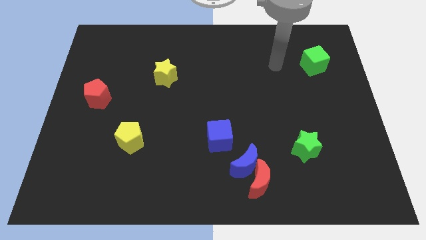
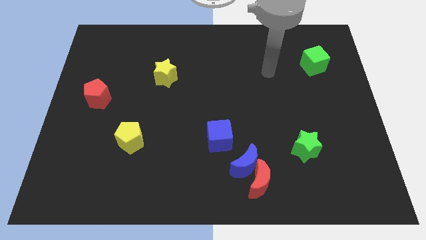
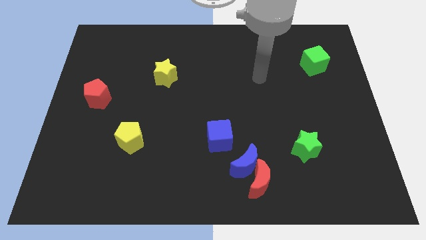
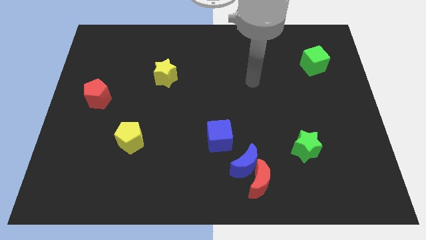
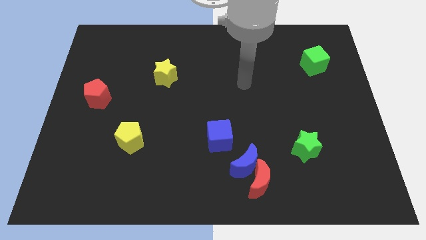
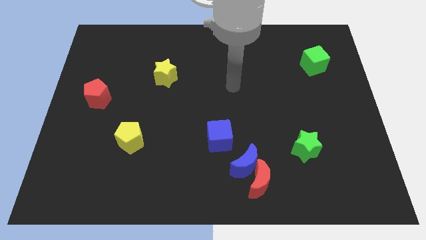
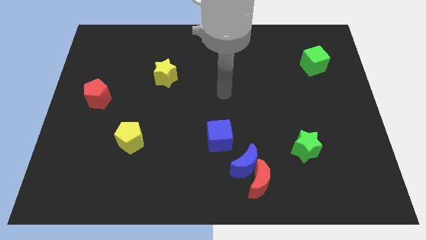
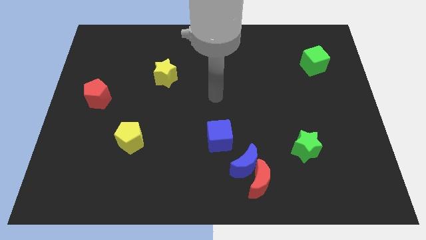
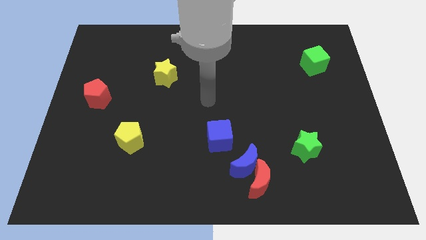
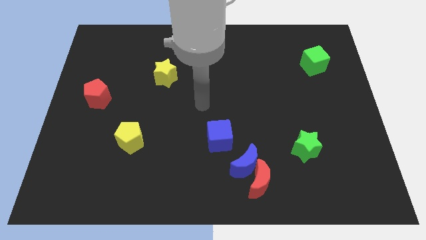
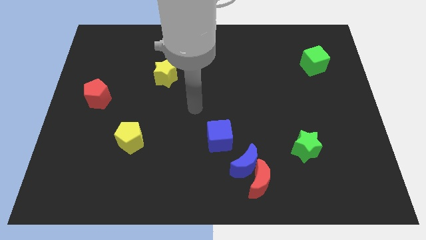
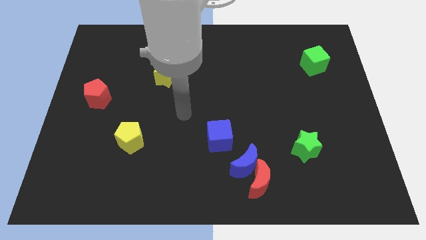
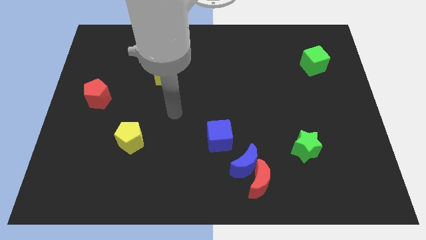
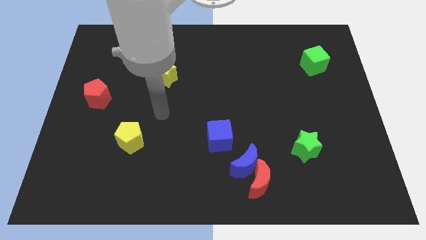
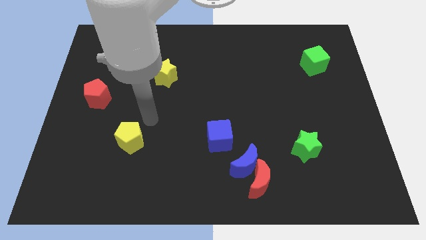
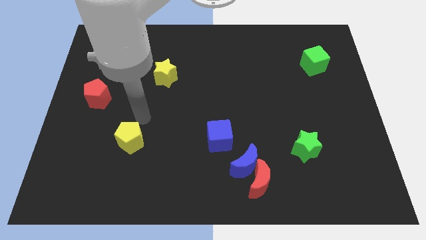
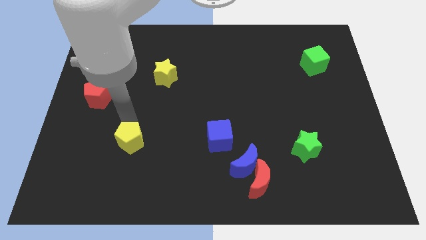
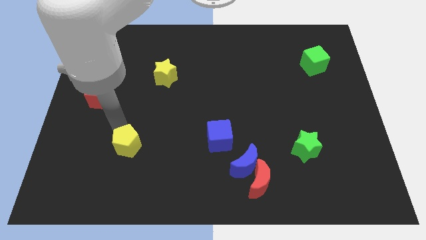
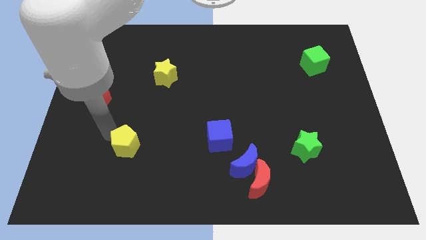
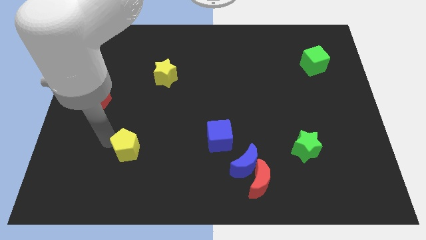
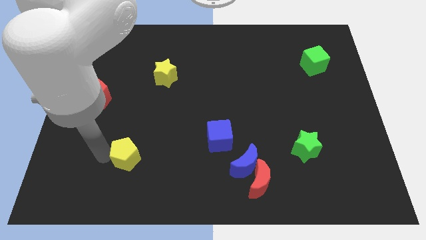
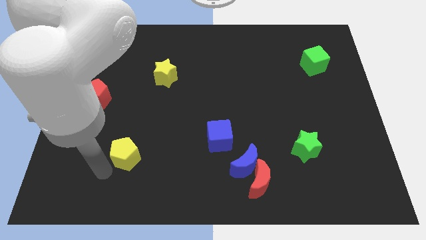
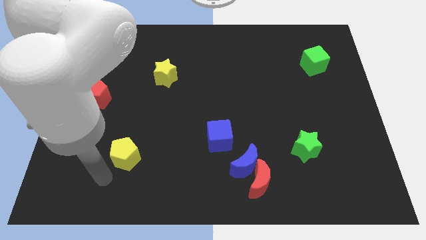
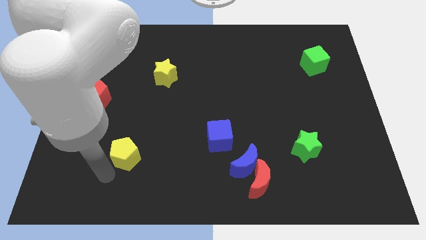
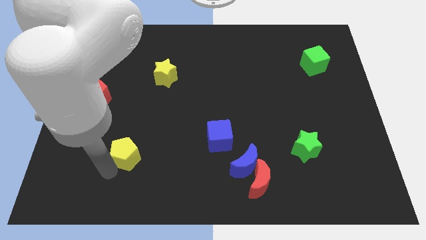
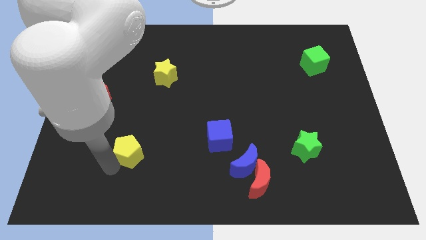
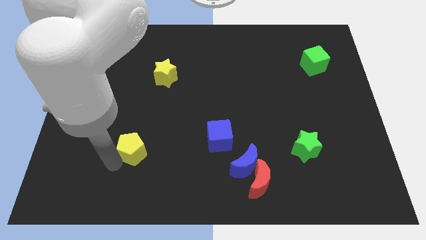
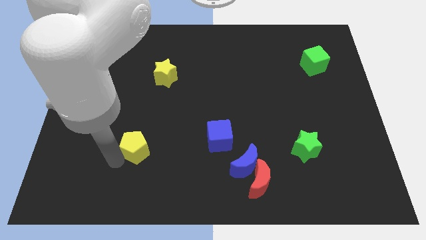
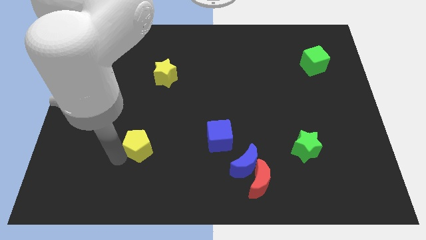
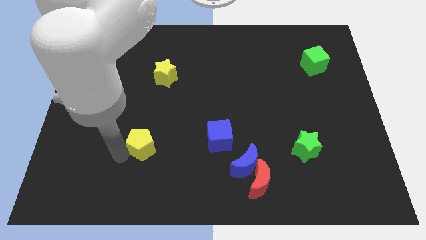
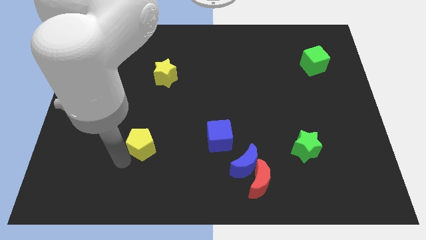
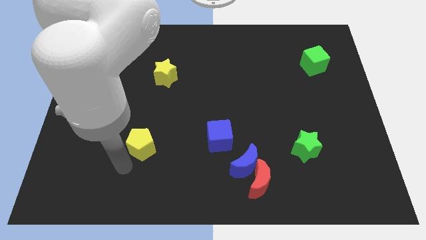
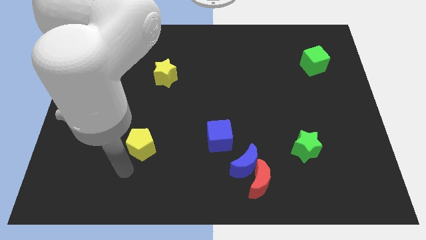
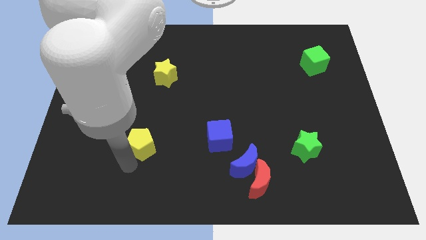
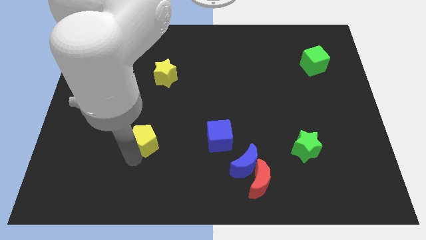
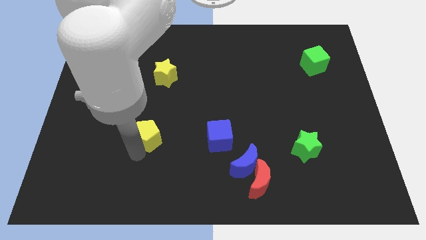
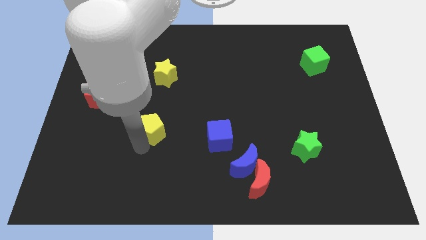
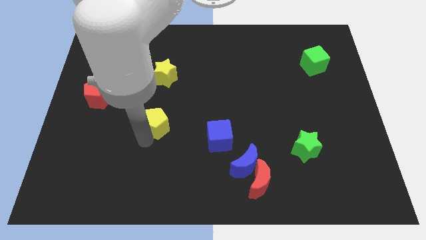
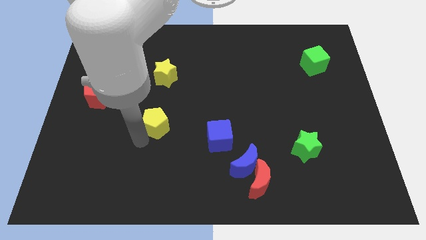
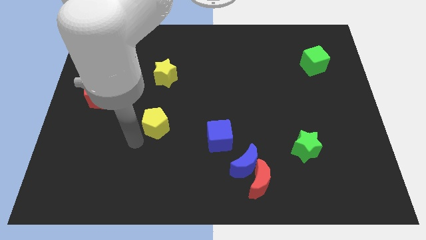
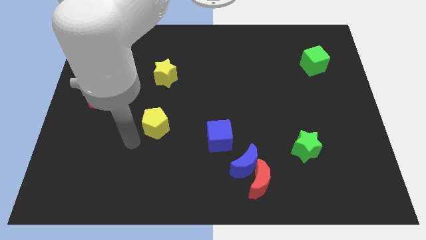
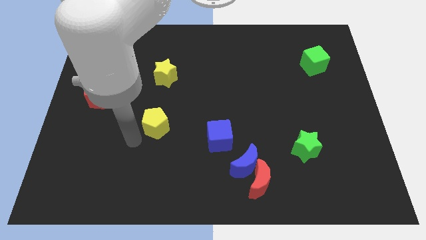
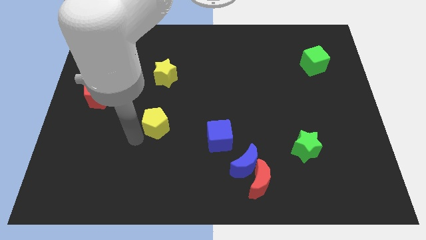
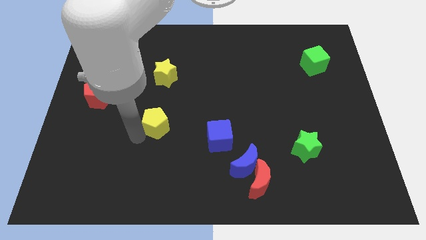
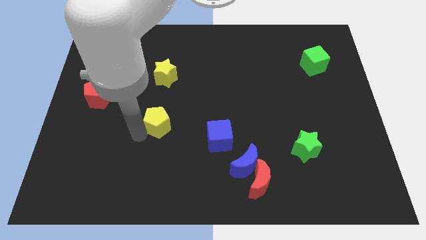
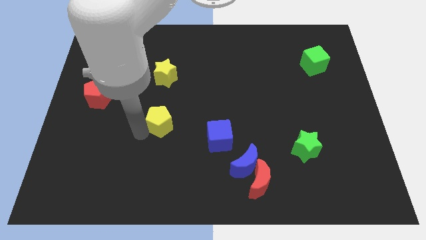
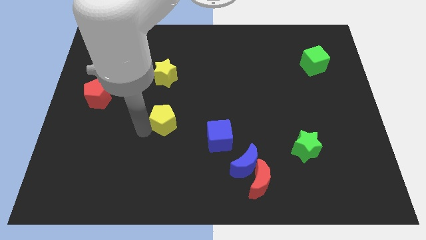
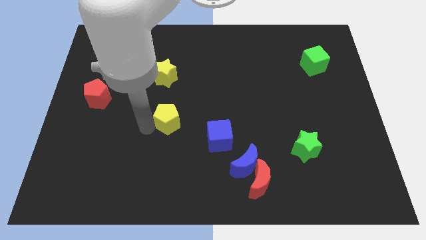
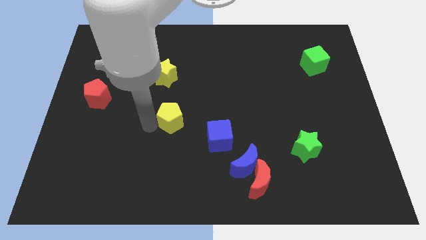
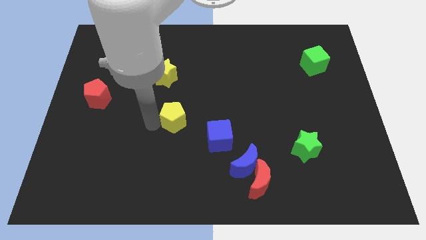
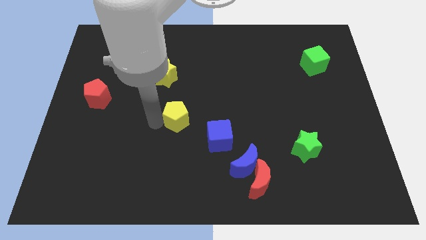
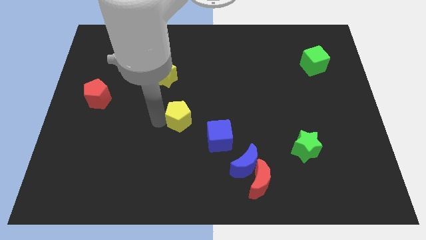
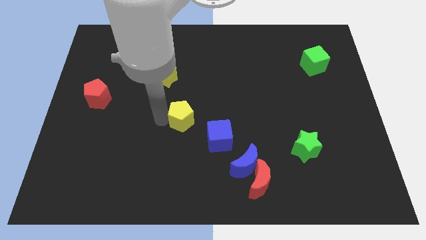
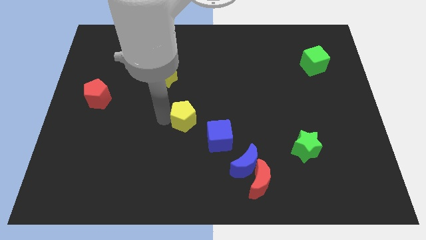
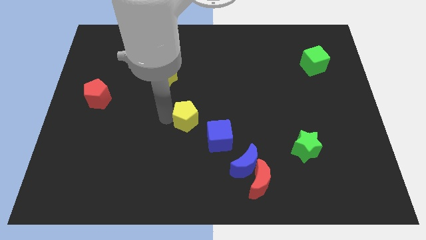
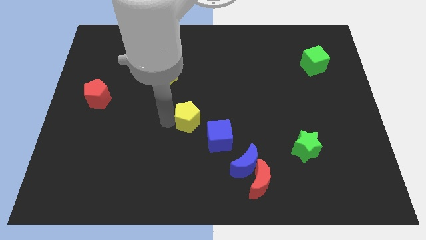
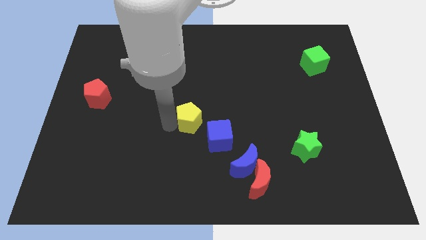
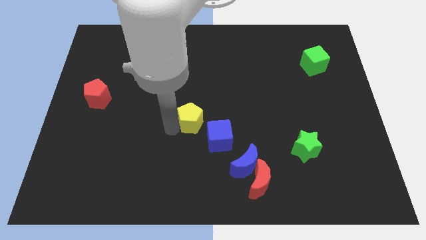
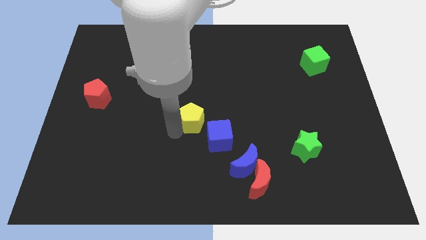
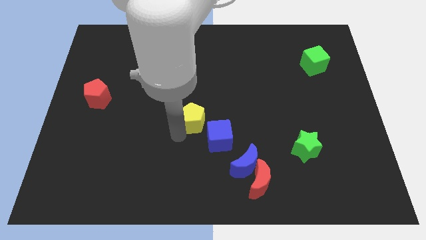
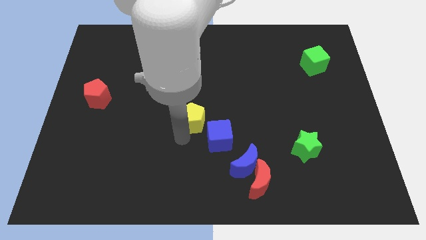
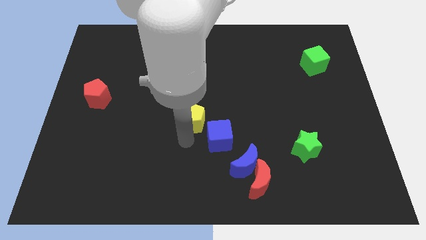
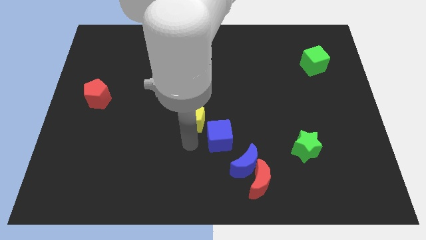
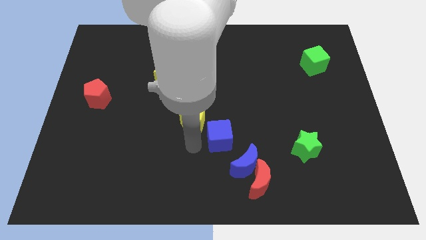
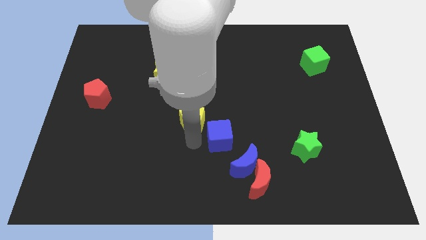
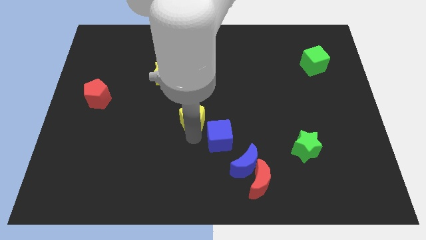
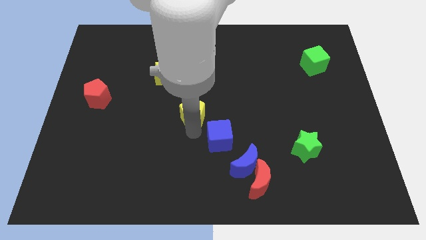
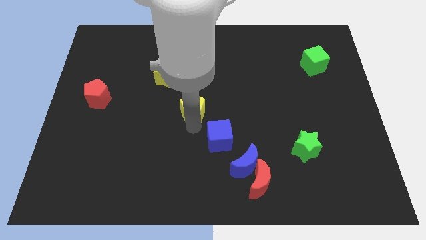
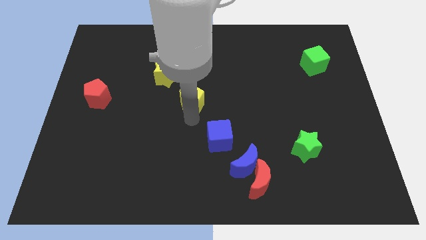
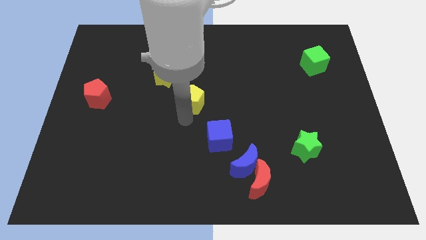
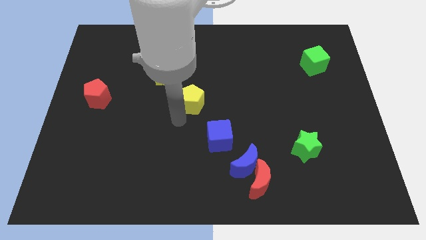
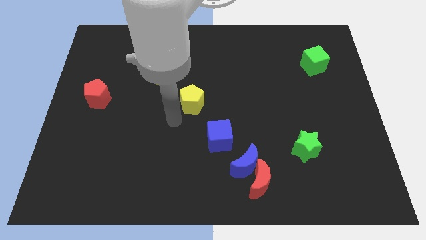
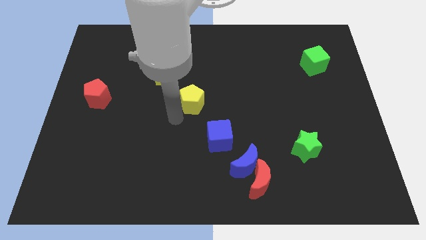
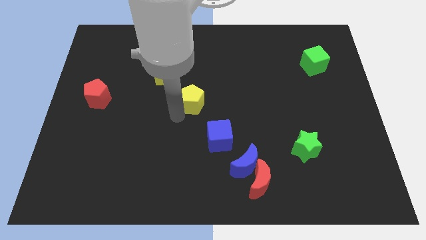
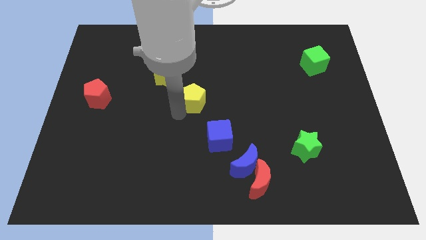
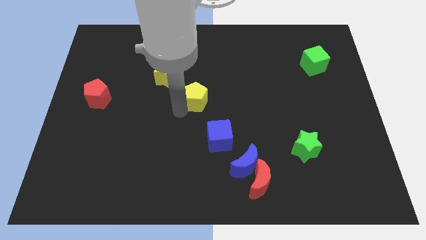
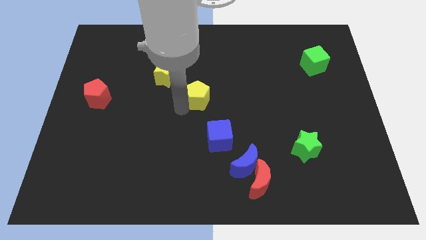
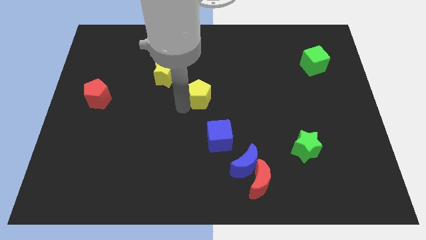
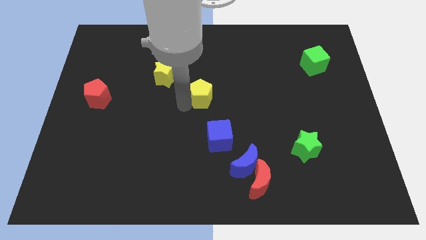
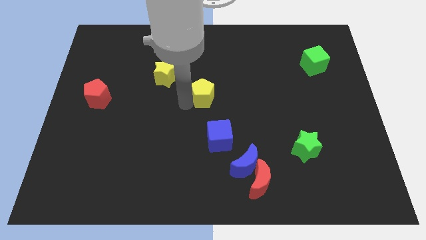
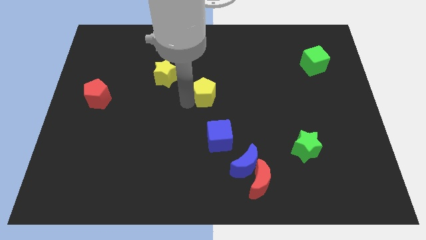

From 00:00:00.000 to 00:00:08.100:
push the yellow pentagon upwards and right diagonally

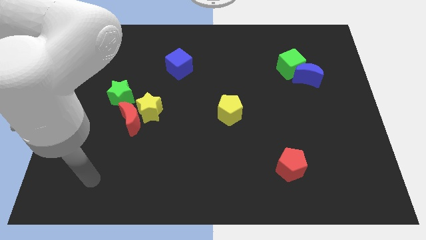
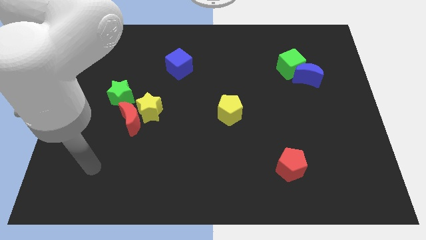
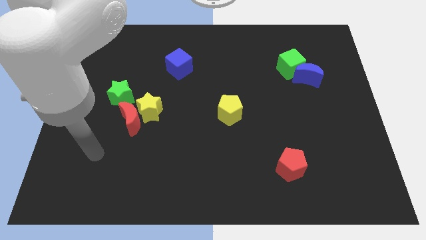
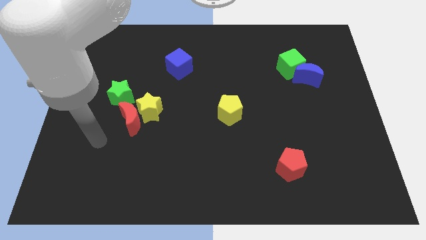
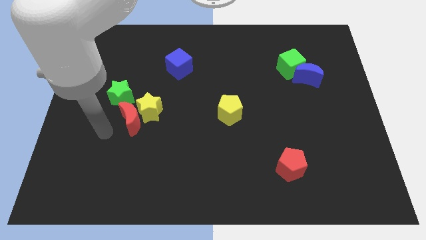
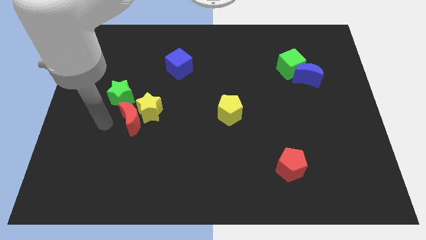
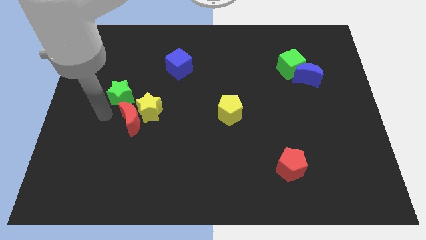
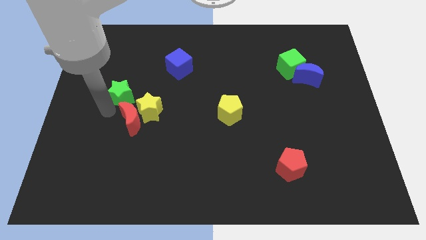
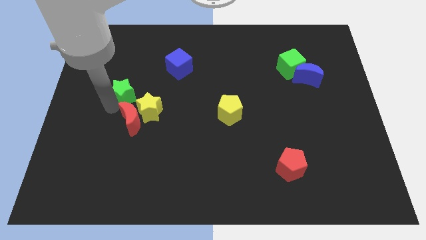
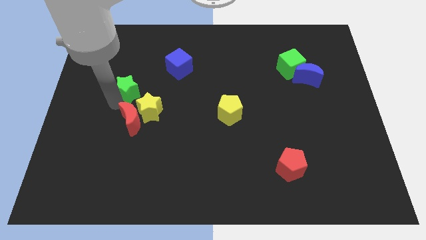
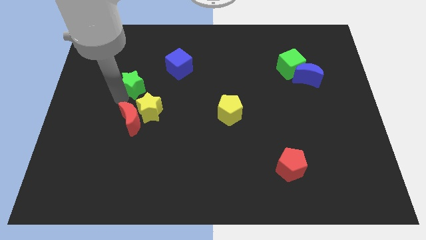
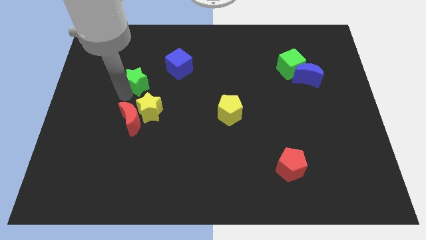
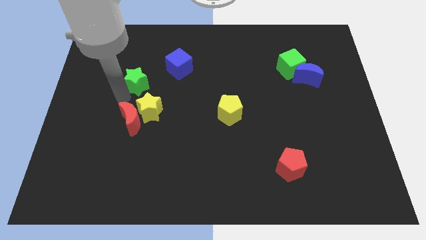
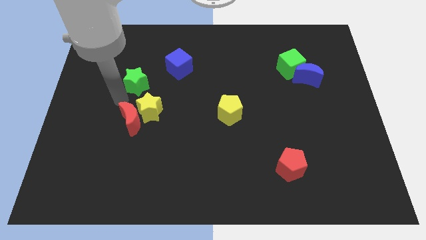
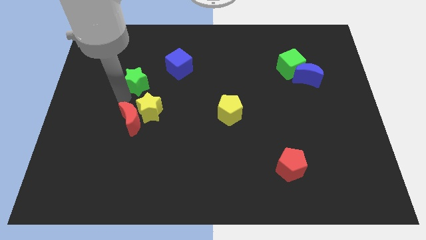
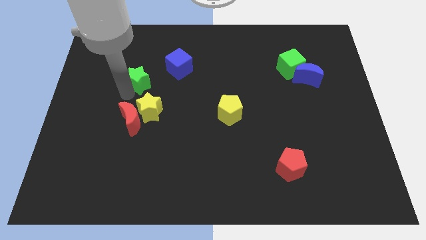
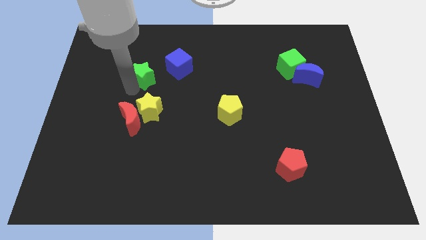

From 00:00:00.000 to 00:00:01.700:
move the green star upwards and then to the right a bit
